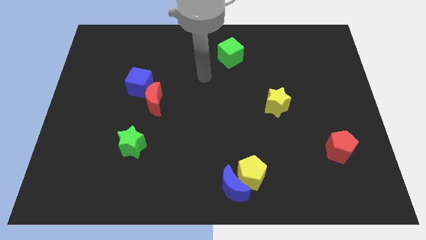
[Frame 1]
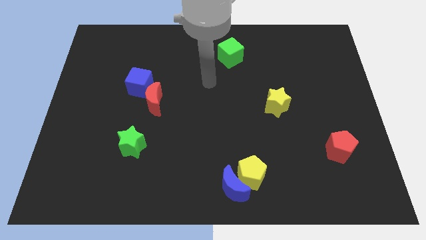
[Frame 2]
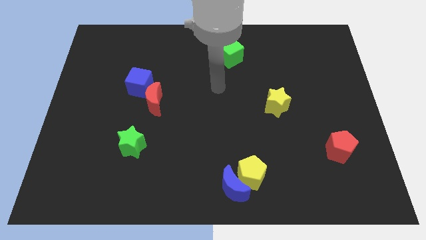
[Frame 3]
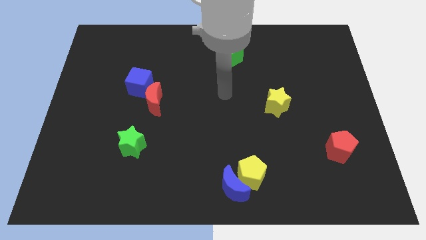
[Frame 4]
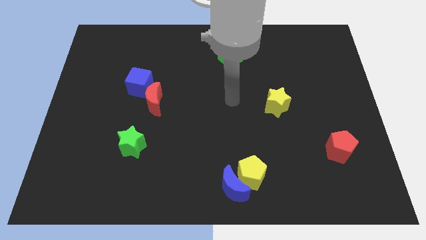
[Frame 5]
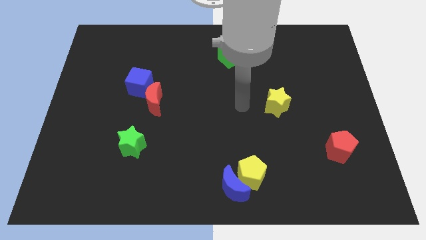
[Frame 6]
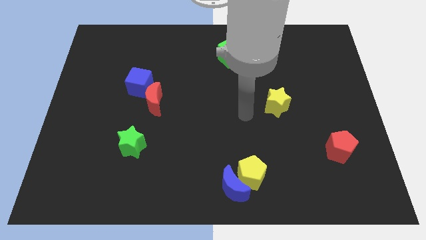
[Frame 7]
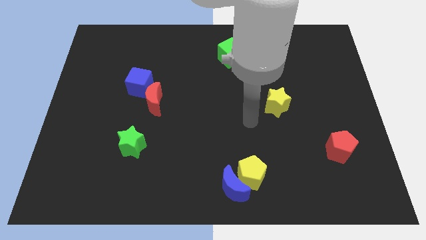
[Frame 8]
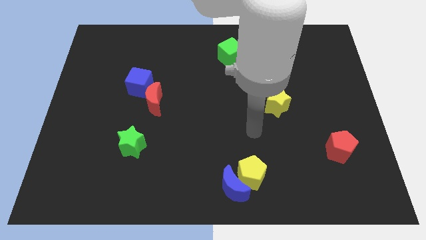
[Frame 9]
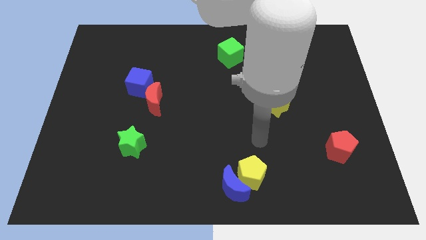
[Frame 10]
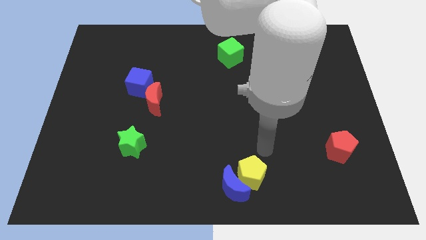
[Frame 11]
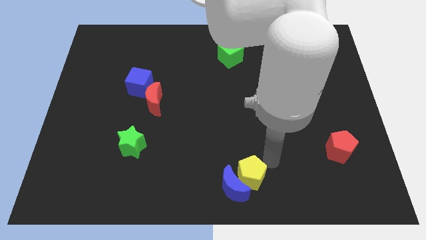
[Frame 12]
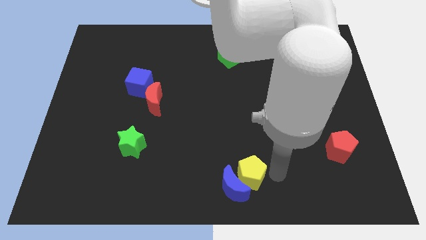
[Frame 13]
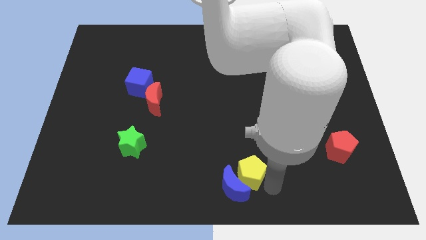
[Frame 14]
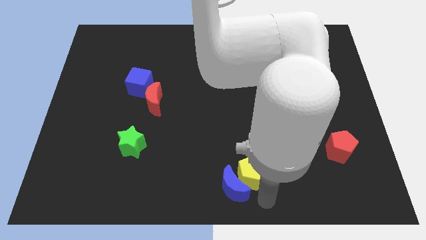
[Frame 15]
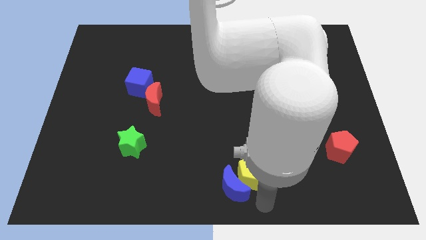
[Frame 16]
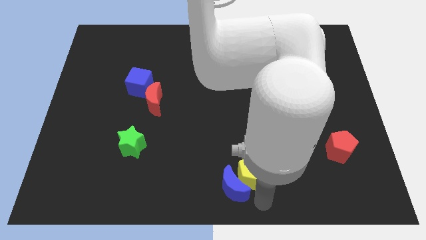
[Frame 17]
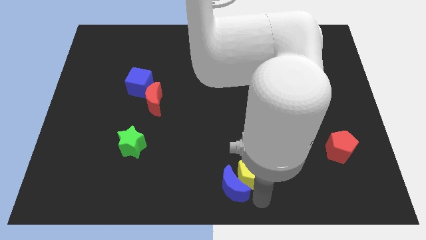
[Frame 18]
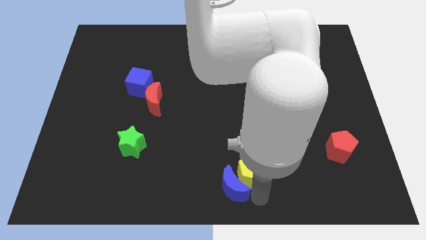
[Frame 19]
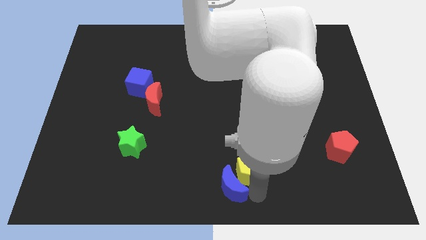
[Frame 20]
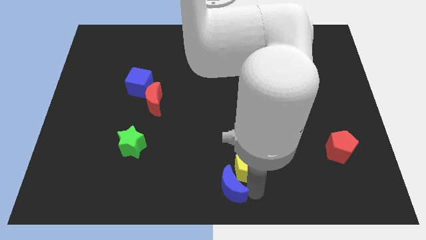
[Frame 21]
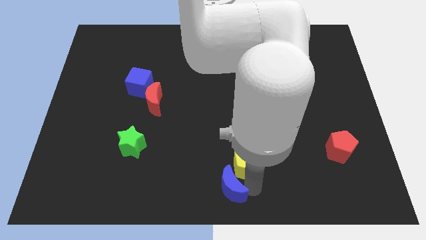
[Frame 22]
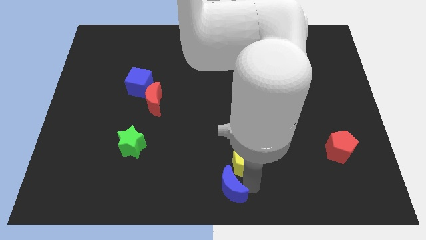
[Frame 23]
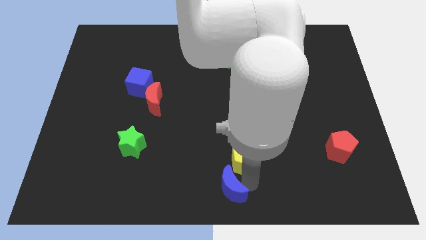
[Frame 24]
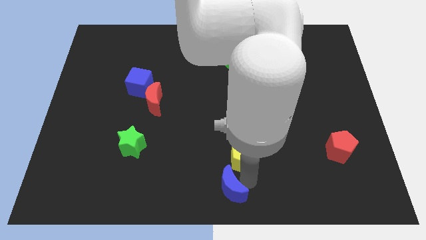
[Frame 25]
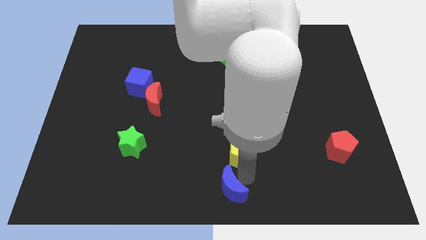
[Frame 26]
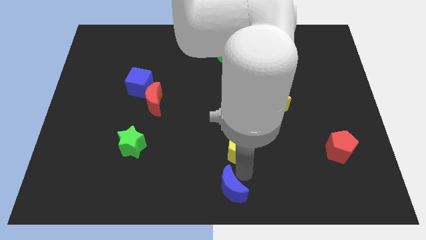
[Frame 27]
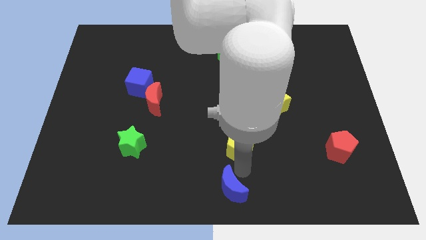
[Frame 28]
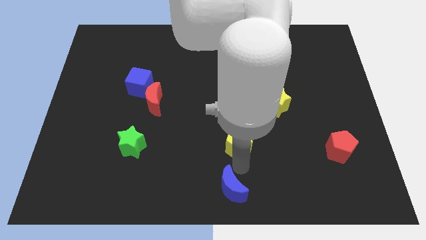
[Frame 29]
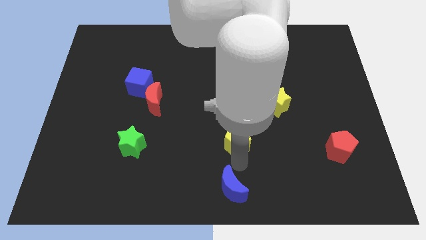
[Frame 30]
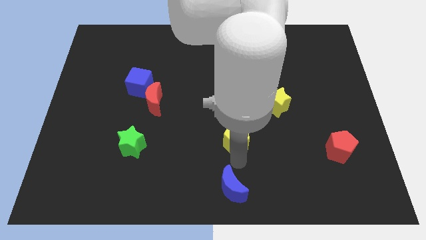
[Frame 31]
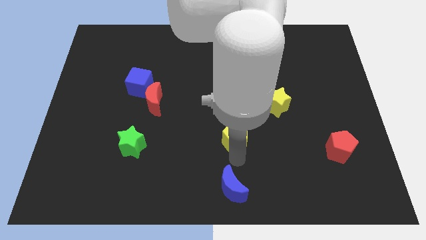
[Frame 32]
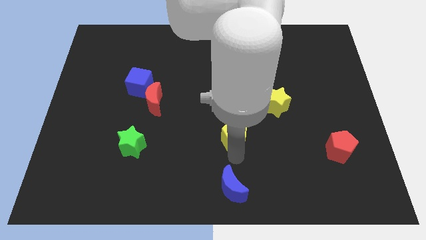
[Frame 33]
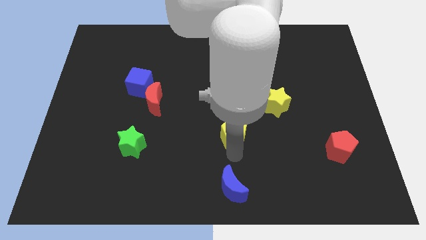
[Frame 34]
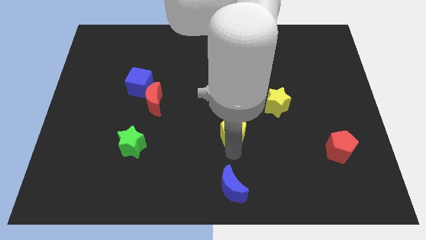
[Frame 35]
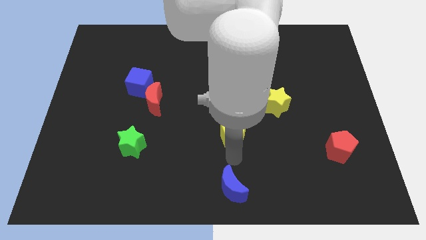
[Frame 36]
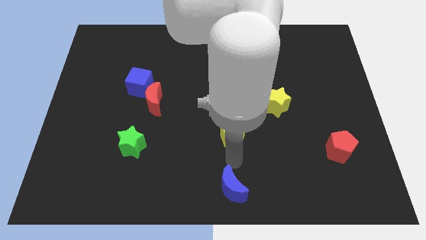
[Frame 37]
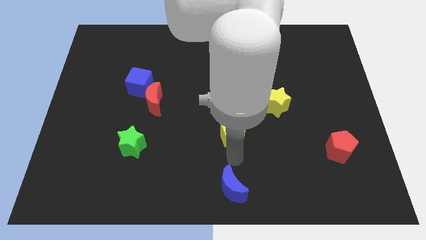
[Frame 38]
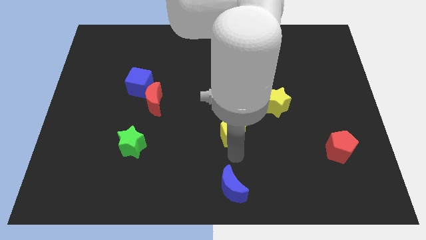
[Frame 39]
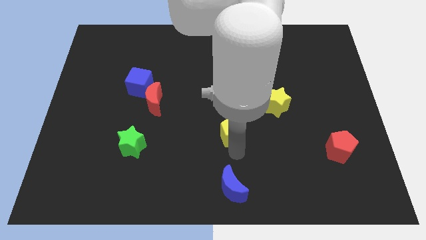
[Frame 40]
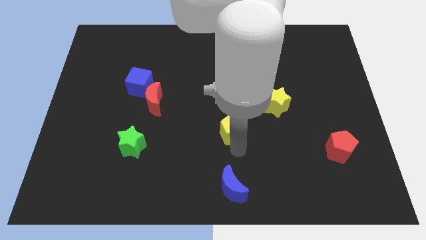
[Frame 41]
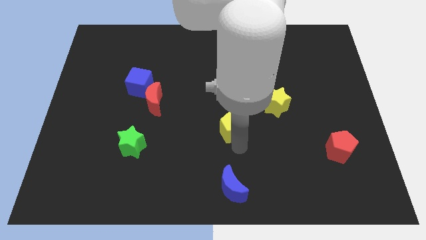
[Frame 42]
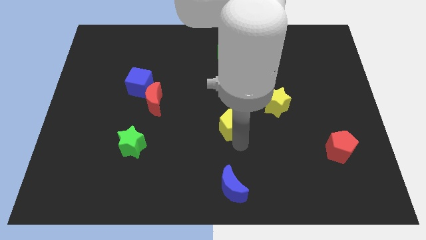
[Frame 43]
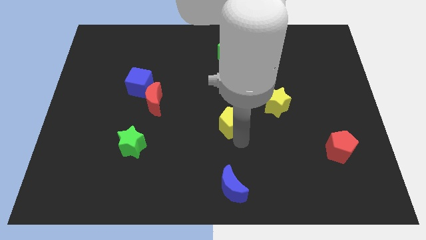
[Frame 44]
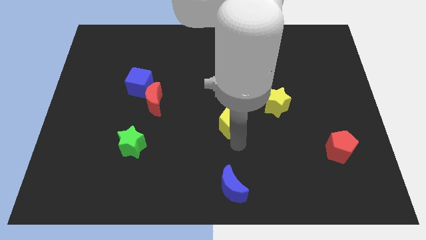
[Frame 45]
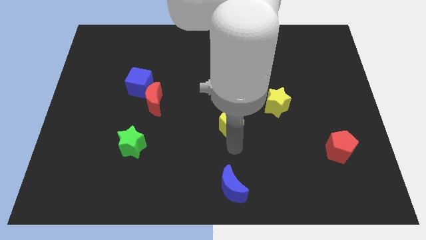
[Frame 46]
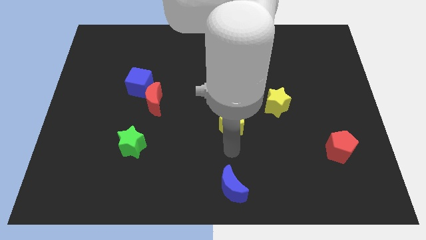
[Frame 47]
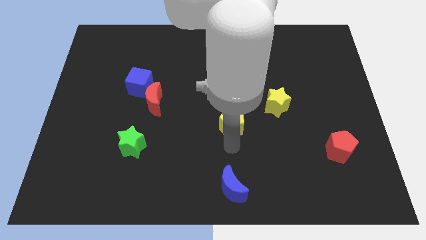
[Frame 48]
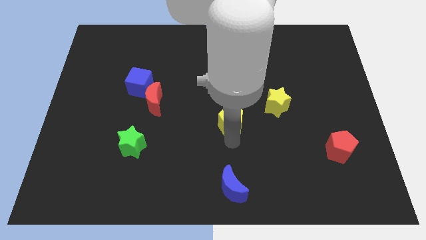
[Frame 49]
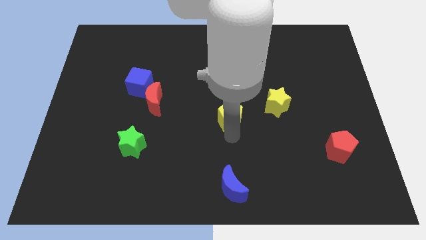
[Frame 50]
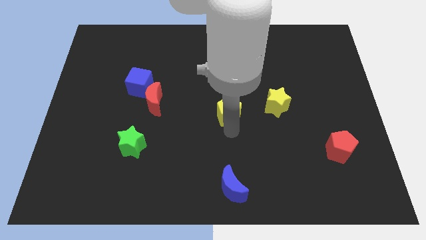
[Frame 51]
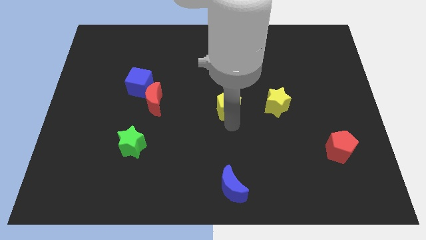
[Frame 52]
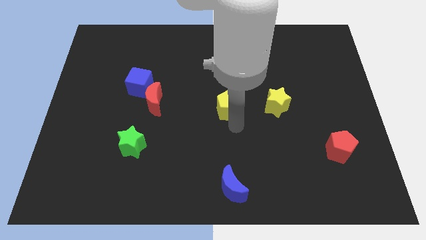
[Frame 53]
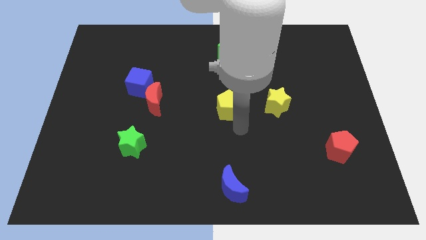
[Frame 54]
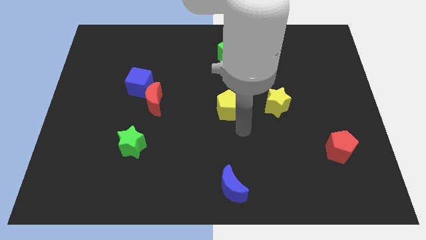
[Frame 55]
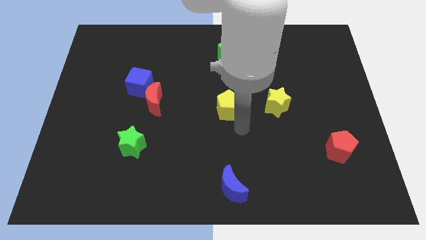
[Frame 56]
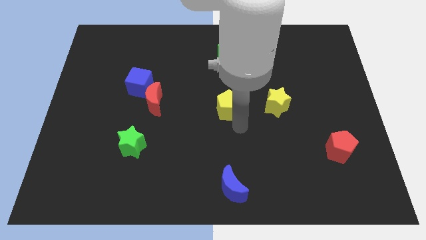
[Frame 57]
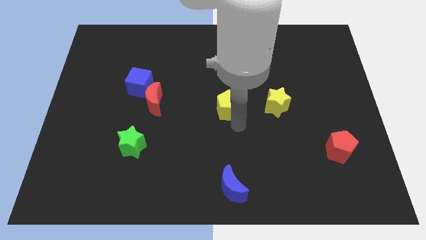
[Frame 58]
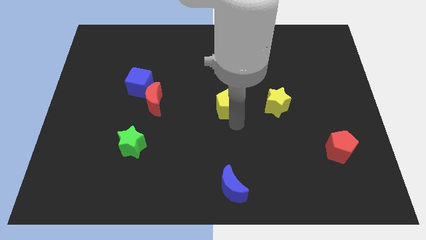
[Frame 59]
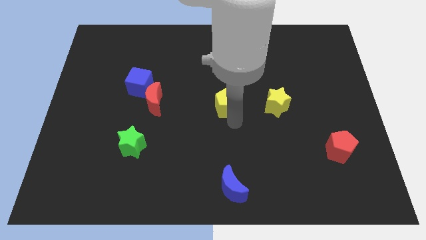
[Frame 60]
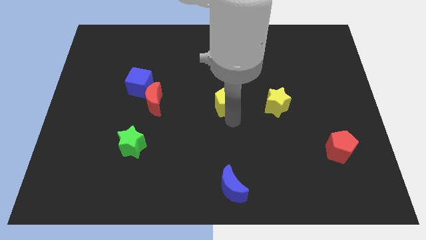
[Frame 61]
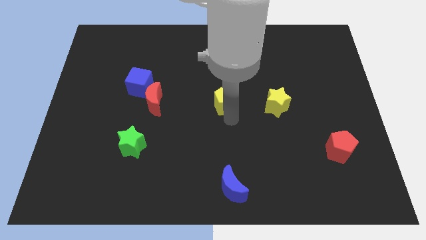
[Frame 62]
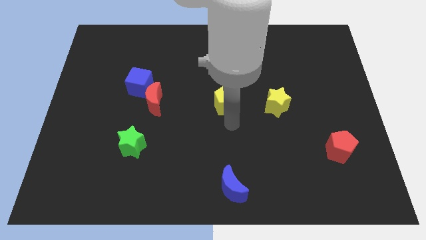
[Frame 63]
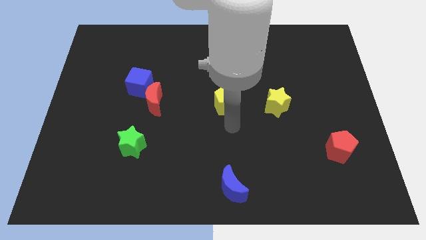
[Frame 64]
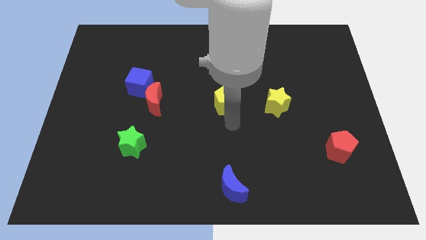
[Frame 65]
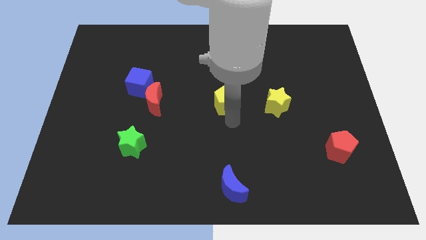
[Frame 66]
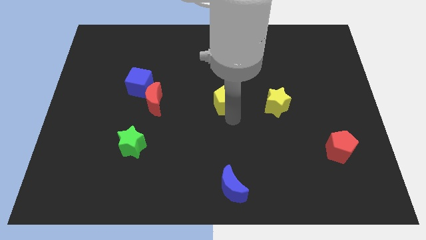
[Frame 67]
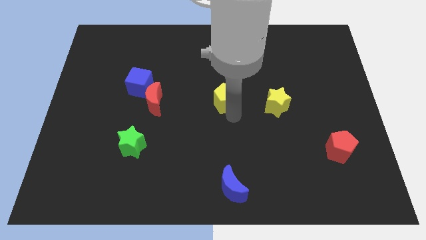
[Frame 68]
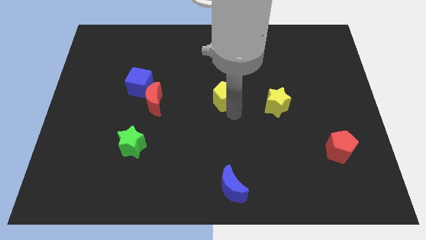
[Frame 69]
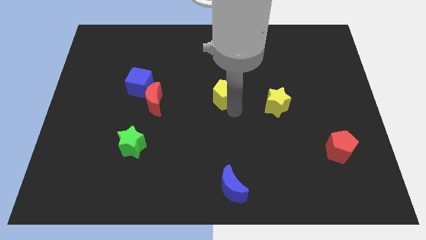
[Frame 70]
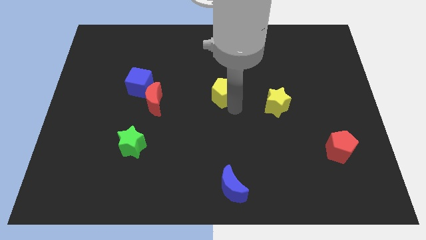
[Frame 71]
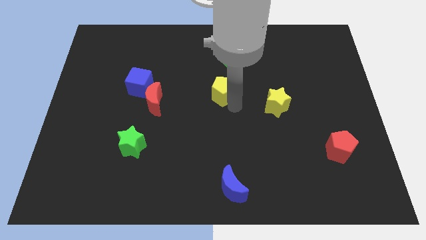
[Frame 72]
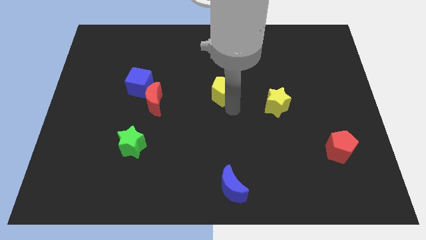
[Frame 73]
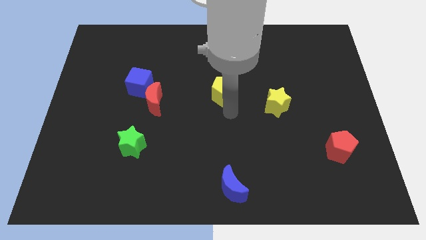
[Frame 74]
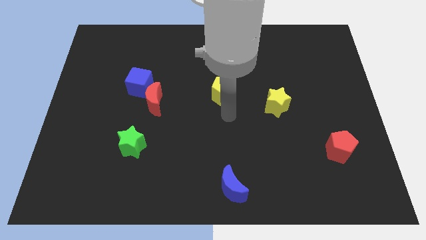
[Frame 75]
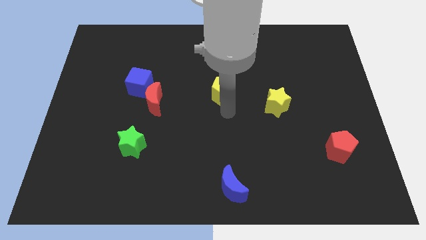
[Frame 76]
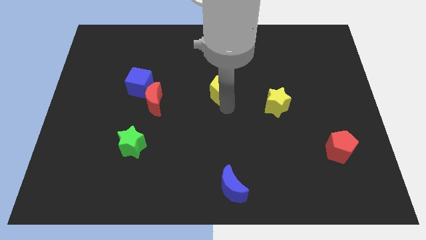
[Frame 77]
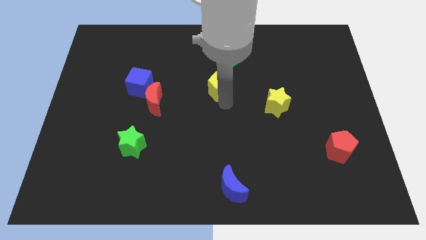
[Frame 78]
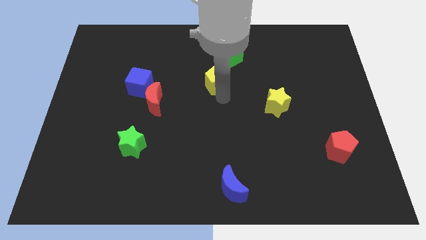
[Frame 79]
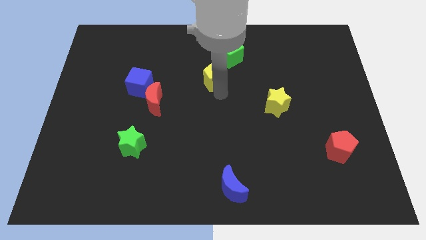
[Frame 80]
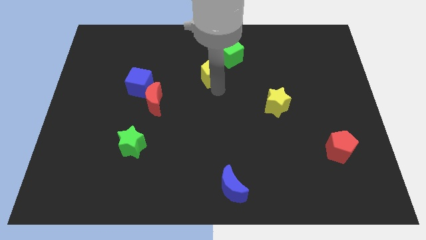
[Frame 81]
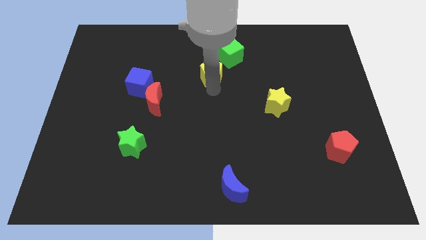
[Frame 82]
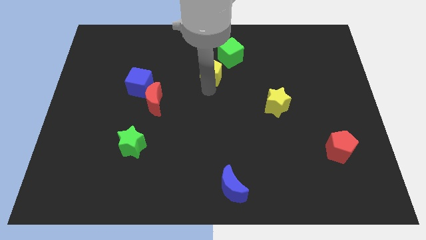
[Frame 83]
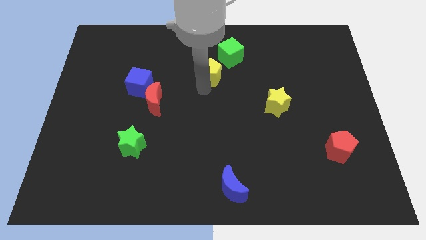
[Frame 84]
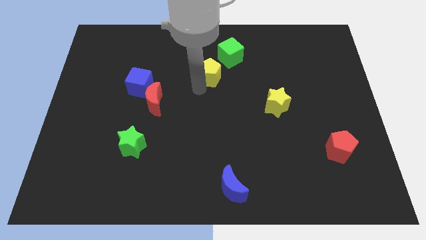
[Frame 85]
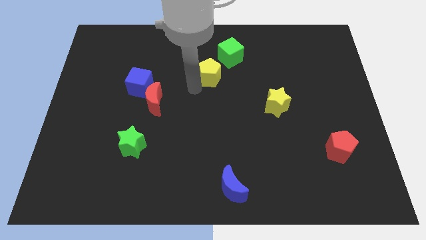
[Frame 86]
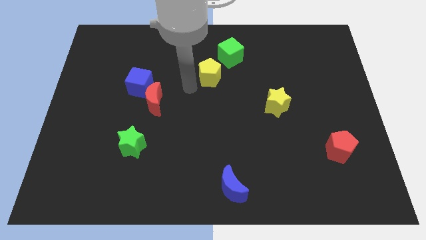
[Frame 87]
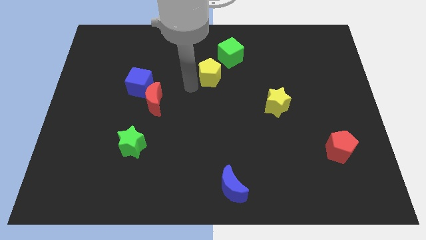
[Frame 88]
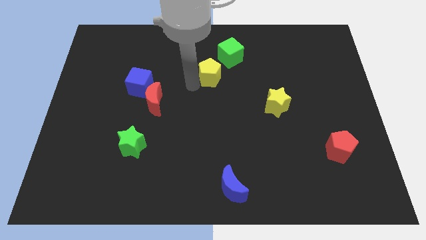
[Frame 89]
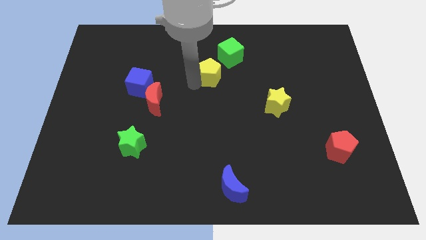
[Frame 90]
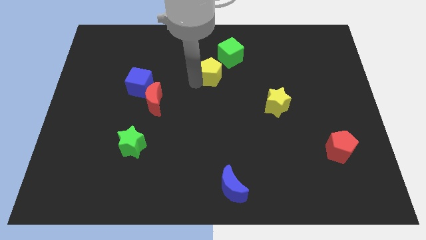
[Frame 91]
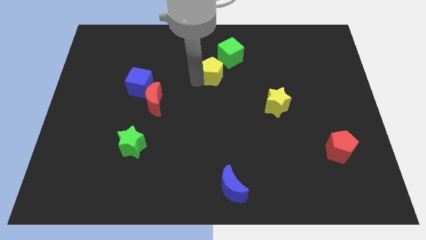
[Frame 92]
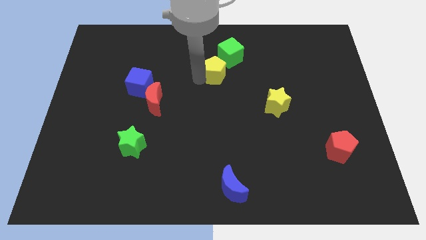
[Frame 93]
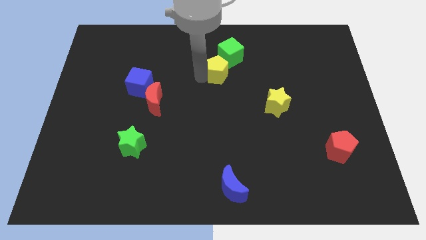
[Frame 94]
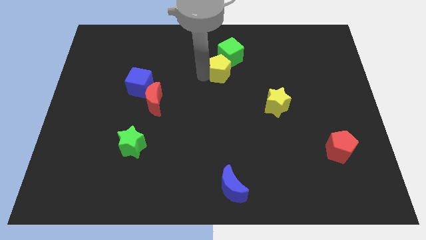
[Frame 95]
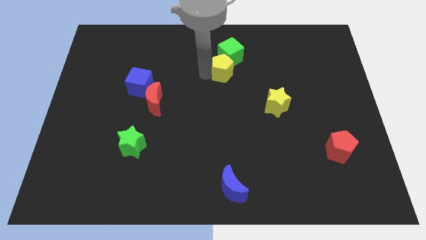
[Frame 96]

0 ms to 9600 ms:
put the yellow pentagon to the green cube
